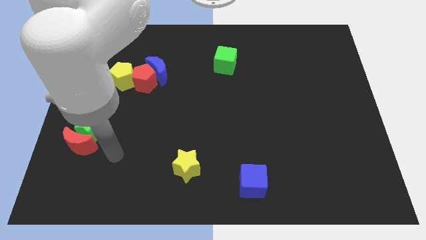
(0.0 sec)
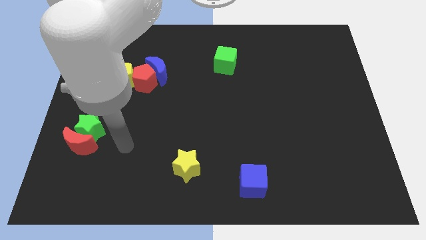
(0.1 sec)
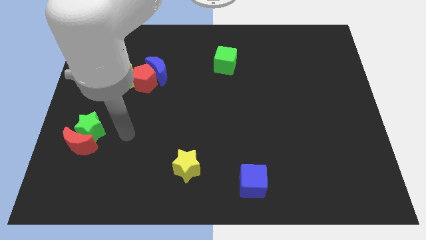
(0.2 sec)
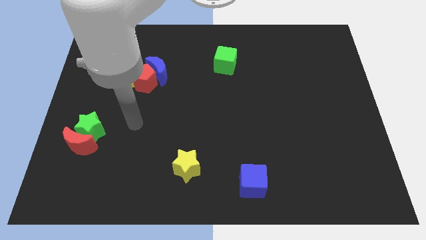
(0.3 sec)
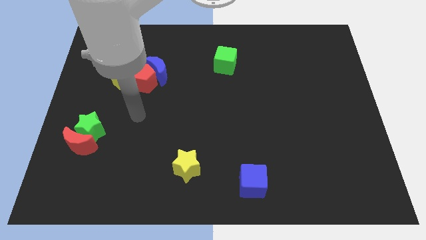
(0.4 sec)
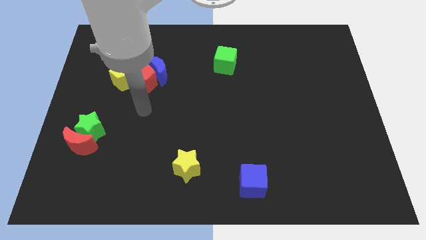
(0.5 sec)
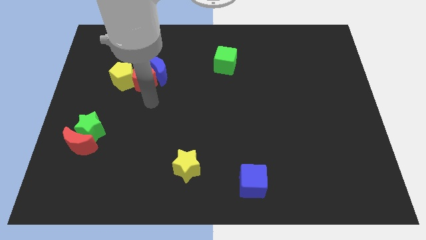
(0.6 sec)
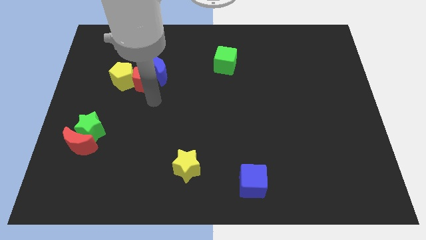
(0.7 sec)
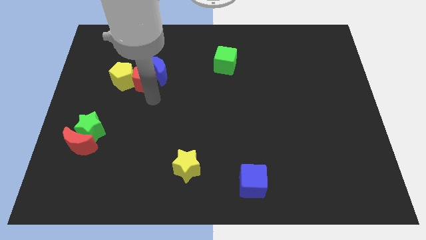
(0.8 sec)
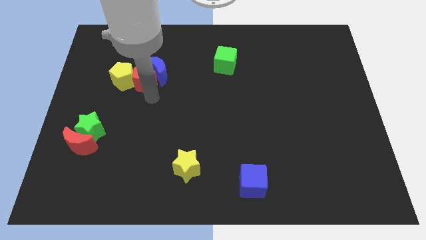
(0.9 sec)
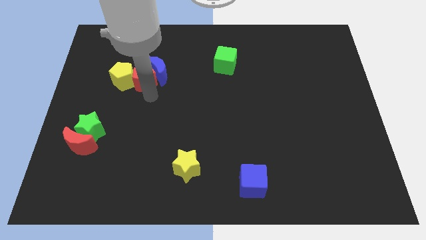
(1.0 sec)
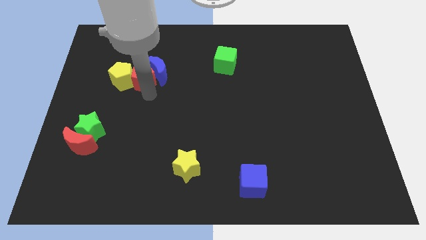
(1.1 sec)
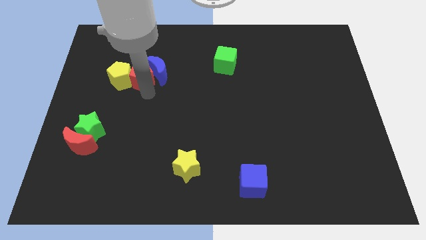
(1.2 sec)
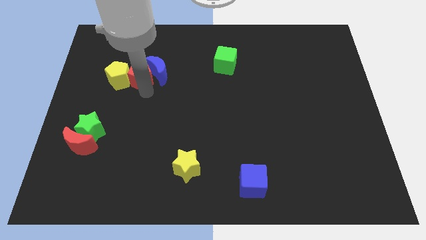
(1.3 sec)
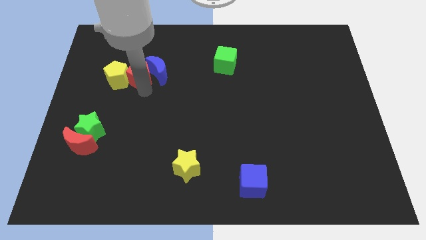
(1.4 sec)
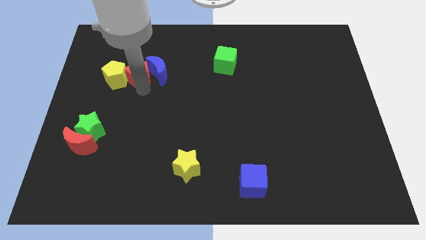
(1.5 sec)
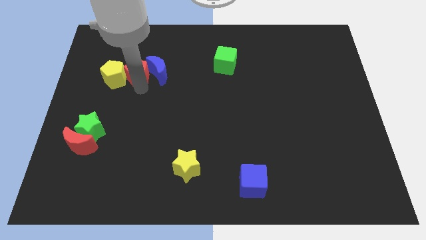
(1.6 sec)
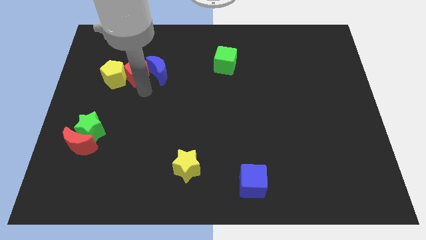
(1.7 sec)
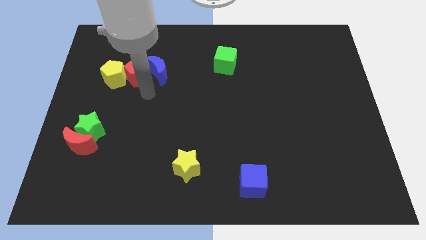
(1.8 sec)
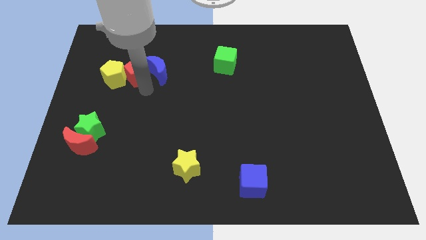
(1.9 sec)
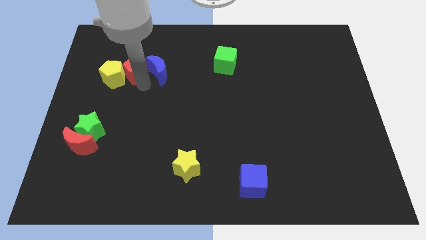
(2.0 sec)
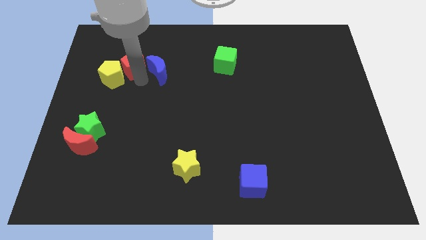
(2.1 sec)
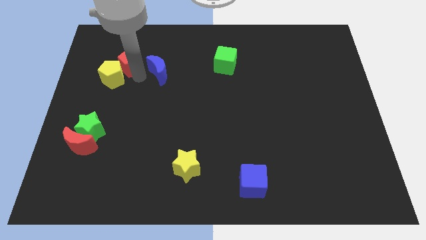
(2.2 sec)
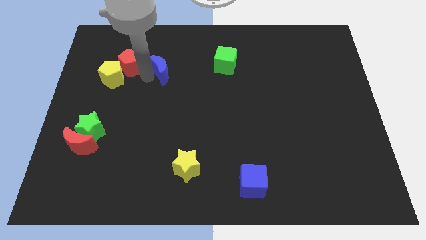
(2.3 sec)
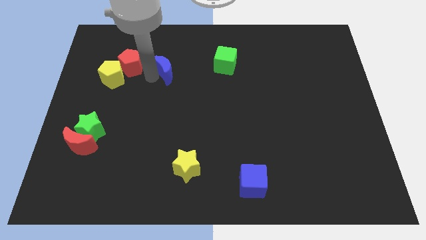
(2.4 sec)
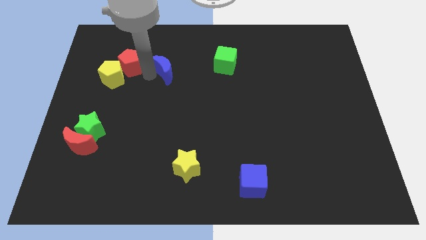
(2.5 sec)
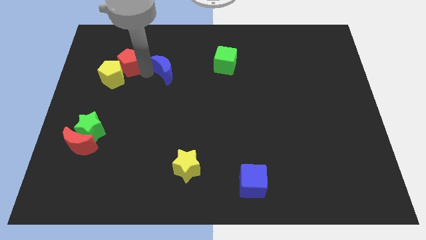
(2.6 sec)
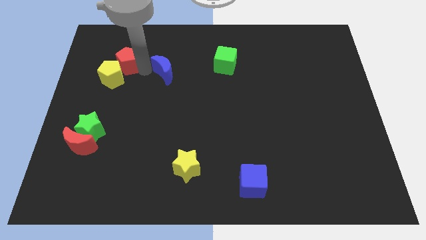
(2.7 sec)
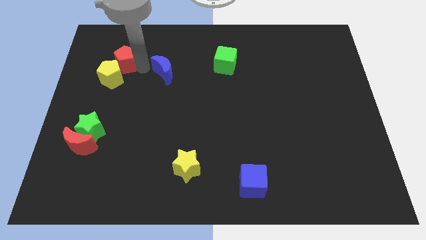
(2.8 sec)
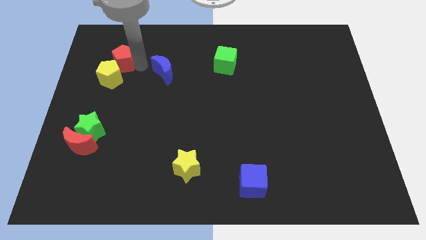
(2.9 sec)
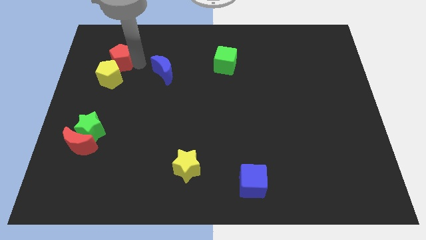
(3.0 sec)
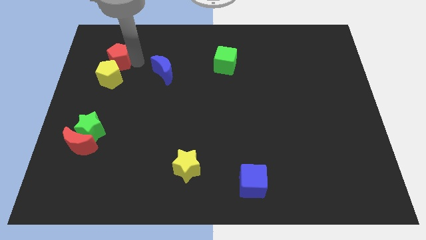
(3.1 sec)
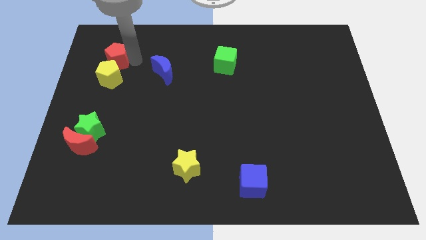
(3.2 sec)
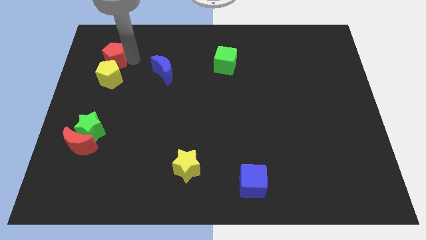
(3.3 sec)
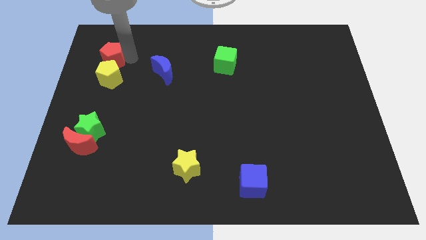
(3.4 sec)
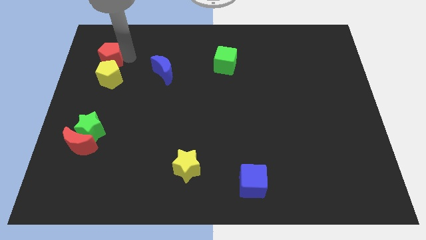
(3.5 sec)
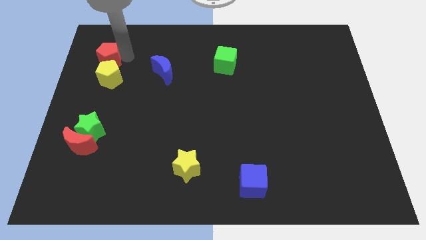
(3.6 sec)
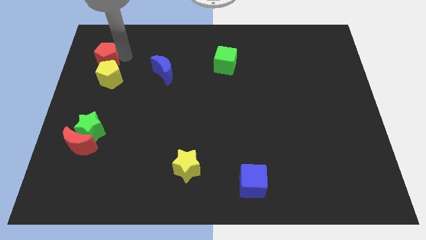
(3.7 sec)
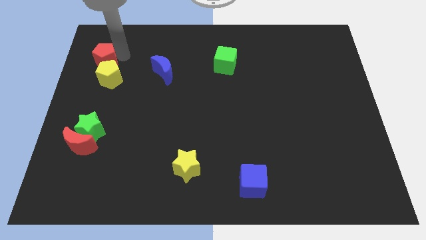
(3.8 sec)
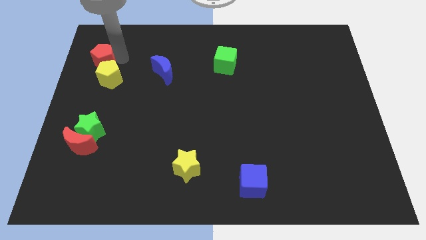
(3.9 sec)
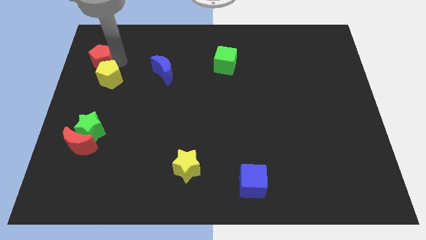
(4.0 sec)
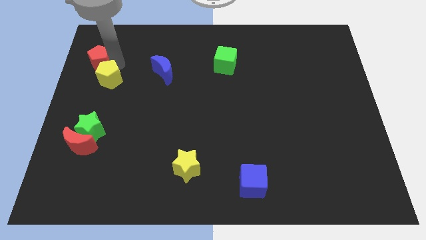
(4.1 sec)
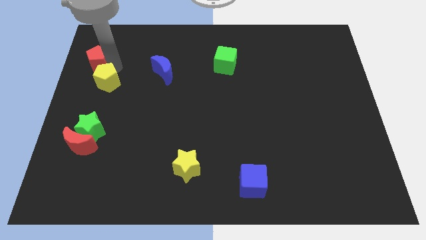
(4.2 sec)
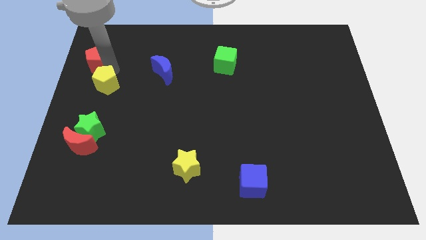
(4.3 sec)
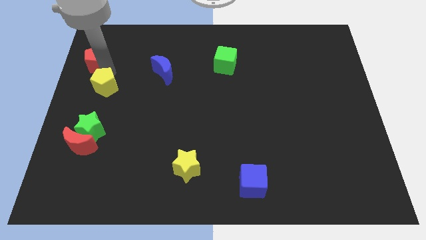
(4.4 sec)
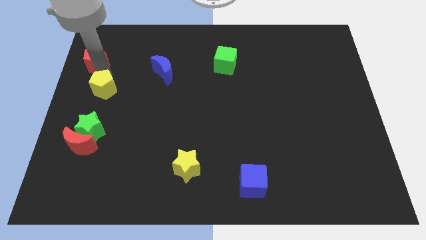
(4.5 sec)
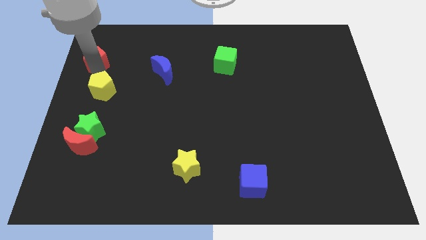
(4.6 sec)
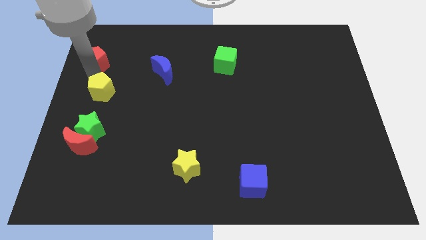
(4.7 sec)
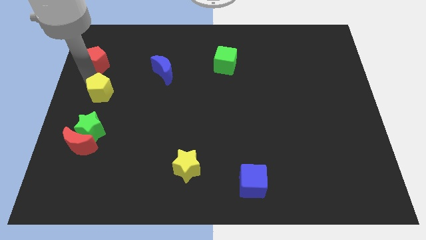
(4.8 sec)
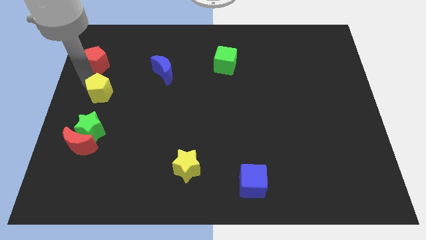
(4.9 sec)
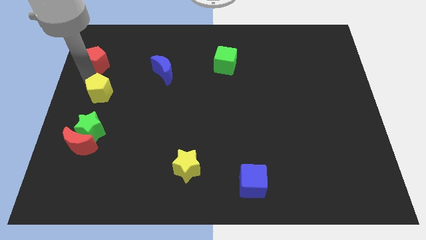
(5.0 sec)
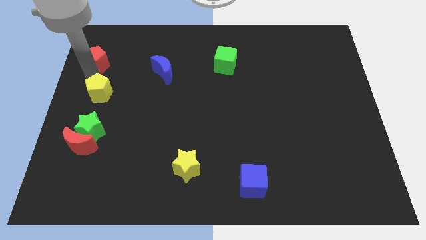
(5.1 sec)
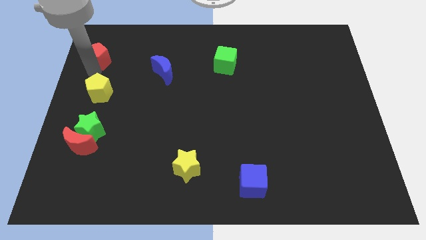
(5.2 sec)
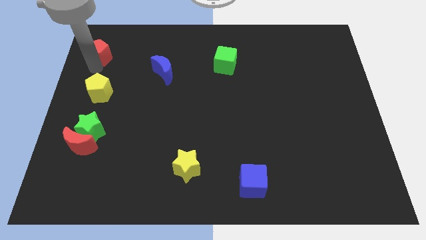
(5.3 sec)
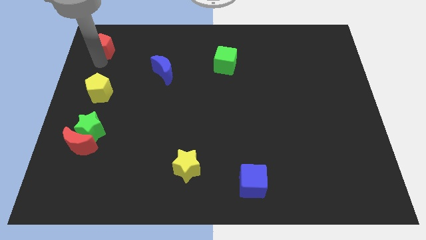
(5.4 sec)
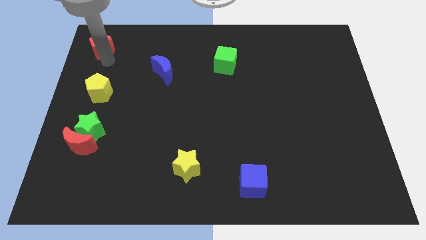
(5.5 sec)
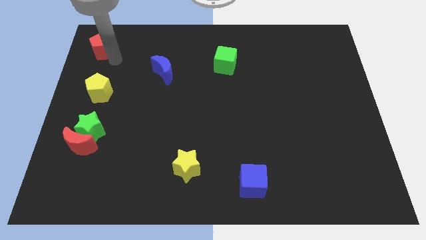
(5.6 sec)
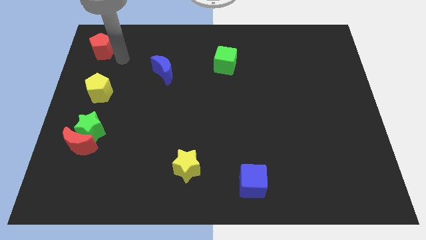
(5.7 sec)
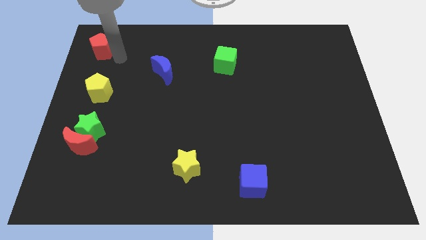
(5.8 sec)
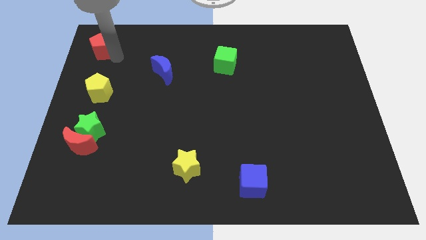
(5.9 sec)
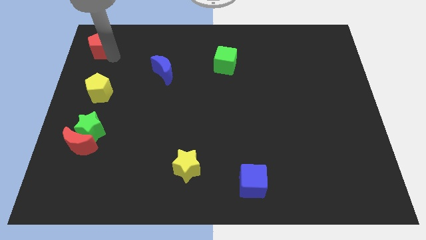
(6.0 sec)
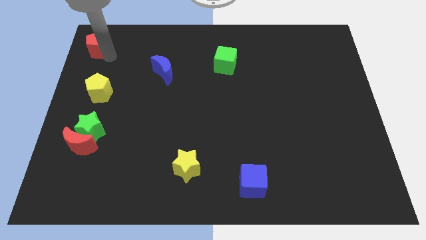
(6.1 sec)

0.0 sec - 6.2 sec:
slide the red pentagon to the upper left corner

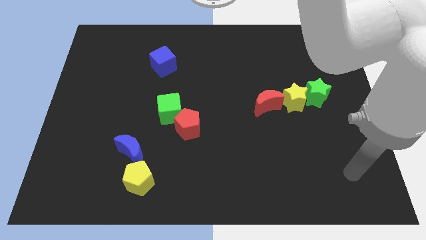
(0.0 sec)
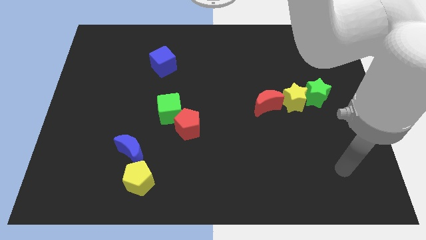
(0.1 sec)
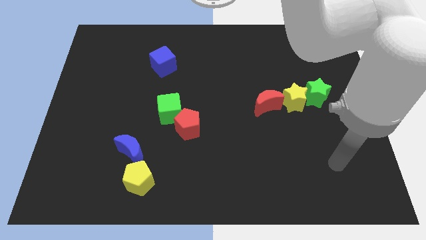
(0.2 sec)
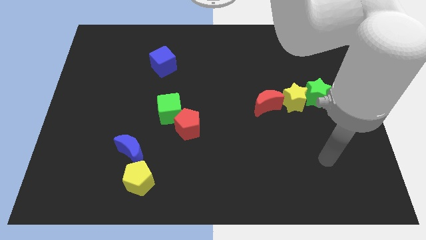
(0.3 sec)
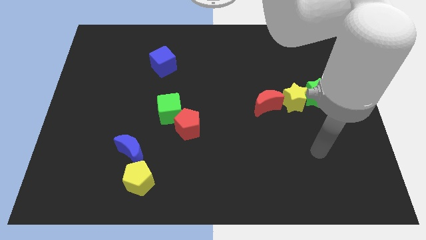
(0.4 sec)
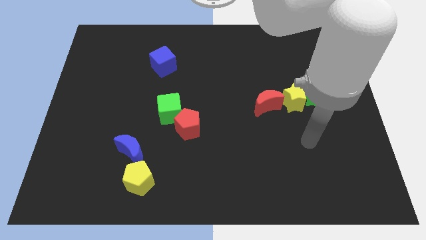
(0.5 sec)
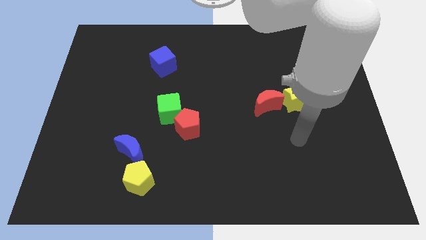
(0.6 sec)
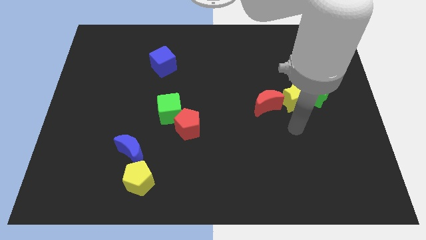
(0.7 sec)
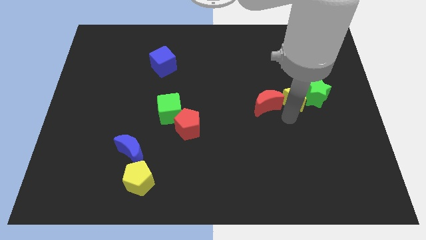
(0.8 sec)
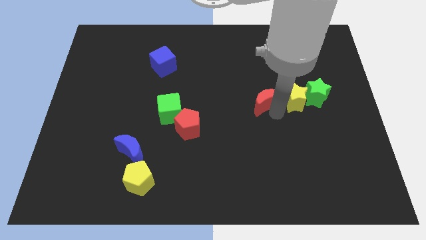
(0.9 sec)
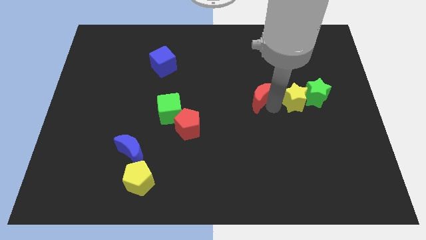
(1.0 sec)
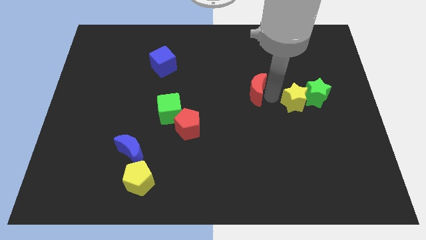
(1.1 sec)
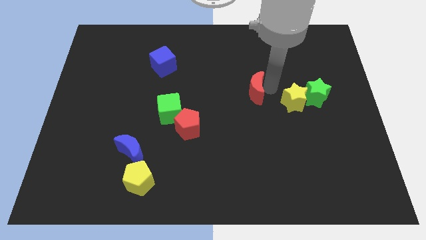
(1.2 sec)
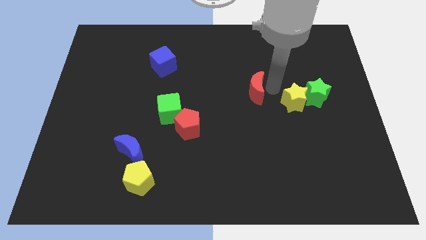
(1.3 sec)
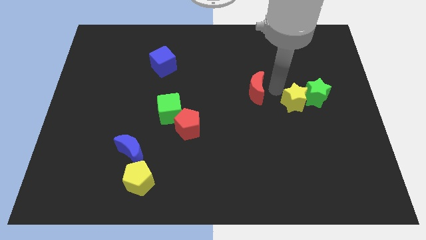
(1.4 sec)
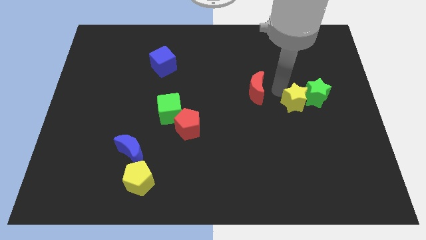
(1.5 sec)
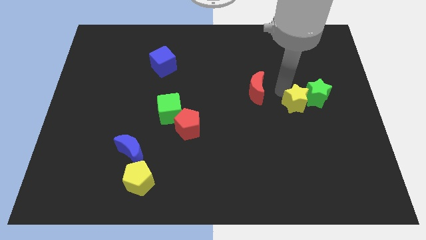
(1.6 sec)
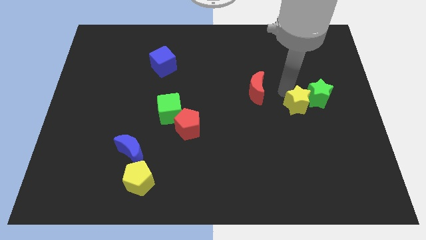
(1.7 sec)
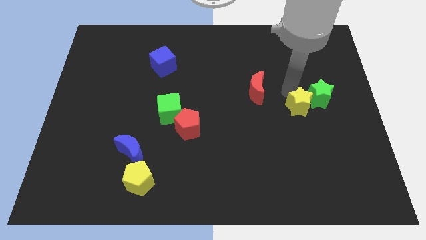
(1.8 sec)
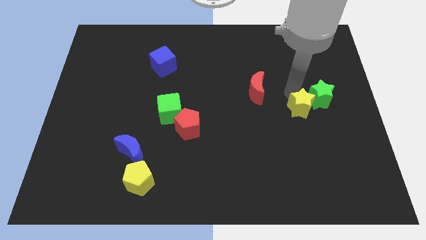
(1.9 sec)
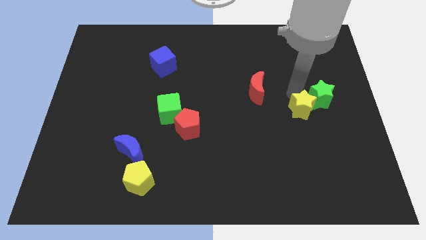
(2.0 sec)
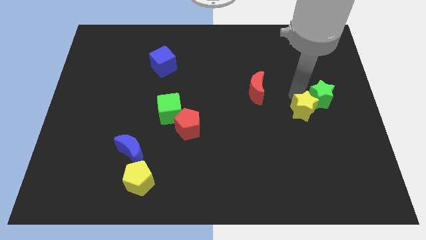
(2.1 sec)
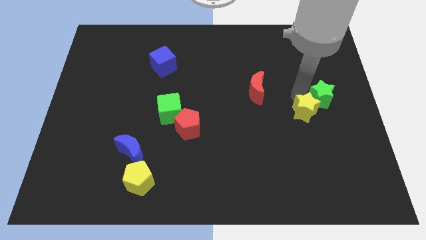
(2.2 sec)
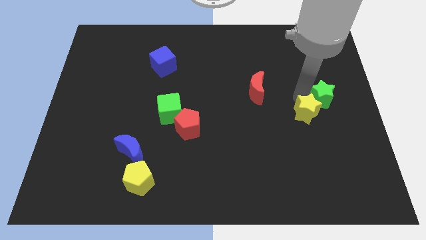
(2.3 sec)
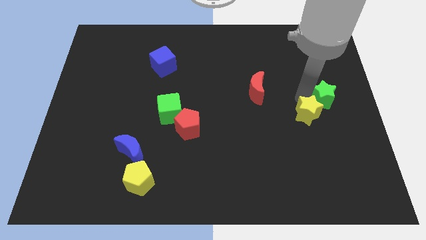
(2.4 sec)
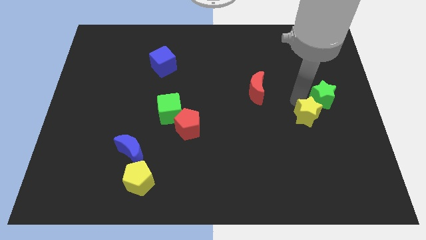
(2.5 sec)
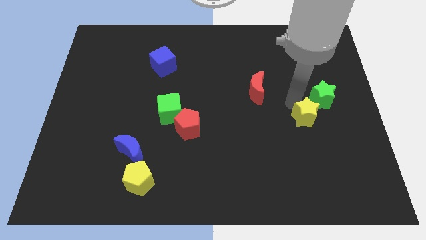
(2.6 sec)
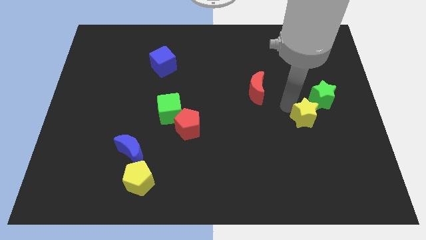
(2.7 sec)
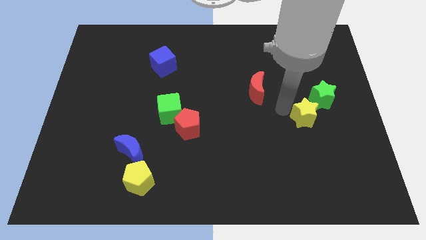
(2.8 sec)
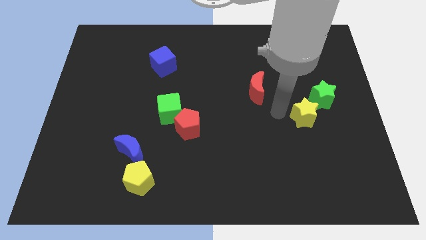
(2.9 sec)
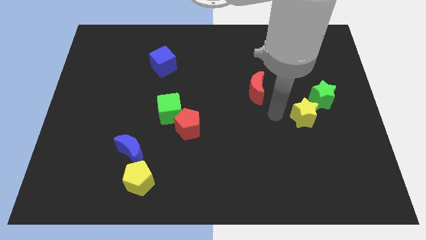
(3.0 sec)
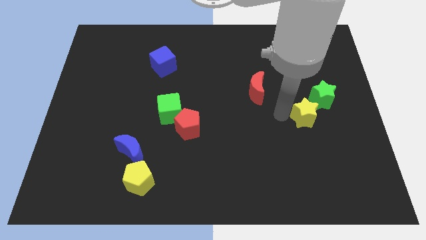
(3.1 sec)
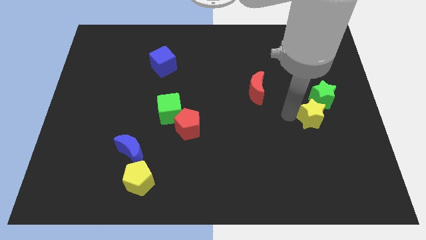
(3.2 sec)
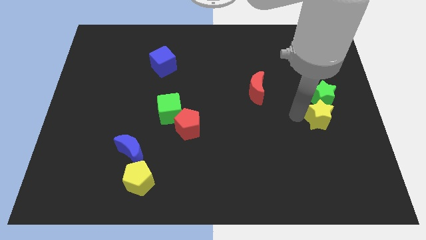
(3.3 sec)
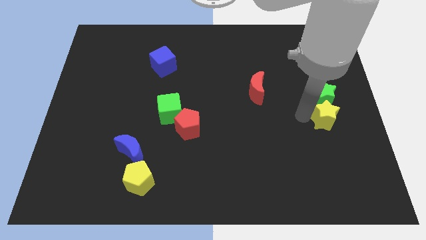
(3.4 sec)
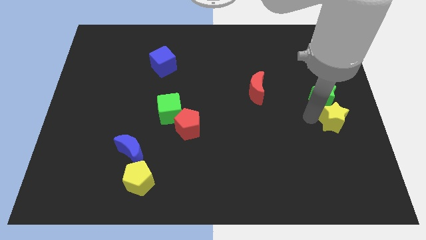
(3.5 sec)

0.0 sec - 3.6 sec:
move the yellow star to the right side of the board
